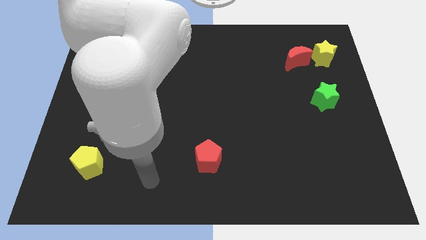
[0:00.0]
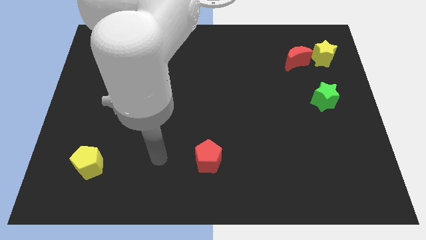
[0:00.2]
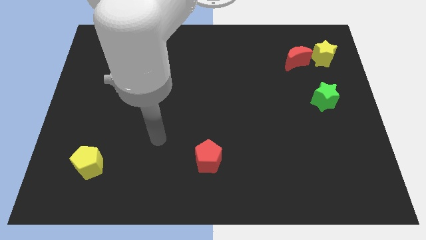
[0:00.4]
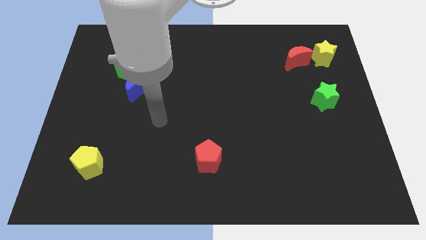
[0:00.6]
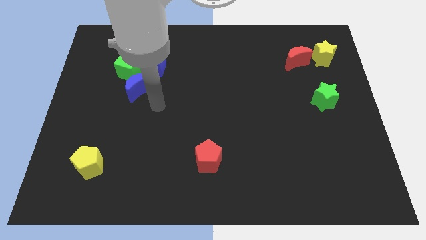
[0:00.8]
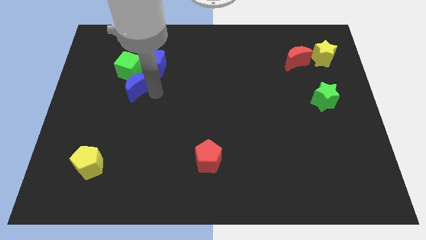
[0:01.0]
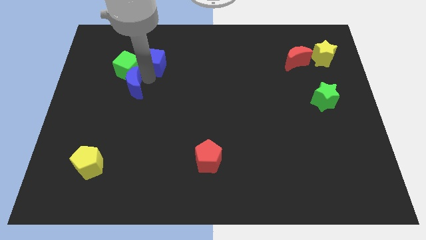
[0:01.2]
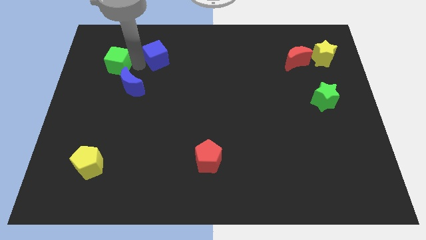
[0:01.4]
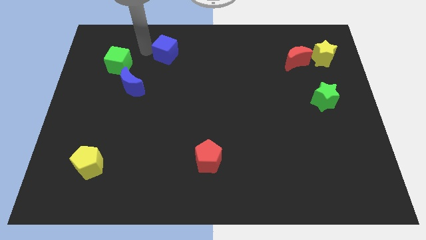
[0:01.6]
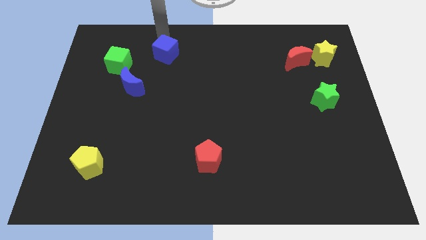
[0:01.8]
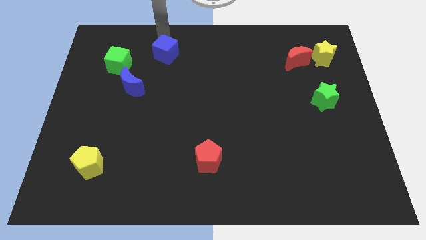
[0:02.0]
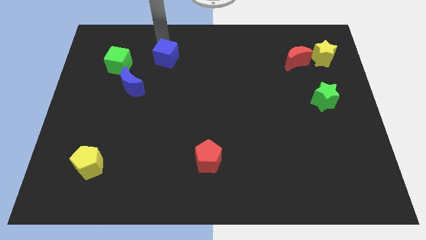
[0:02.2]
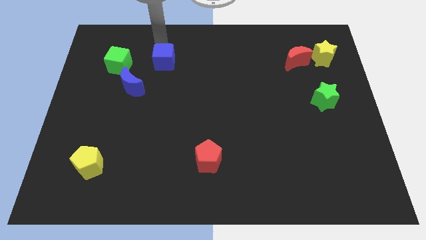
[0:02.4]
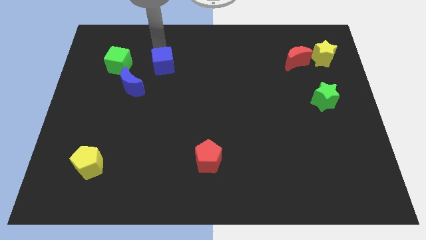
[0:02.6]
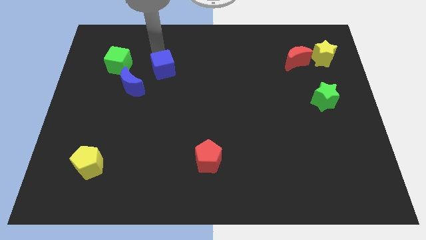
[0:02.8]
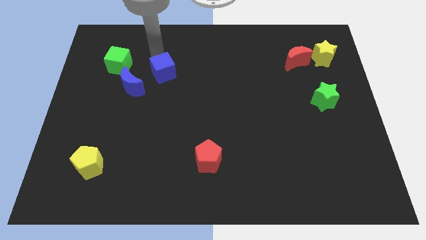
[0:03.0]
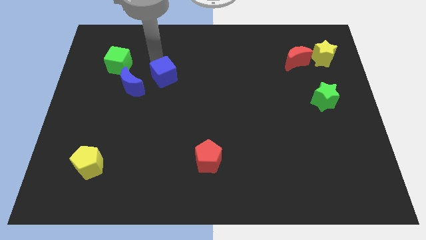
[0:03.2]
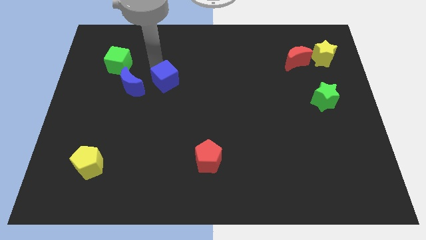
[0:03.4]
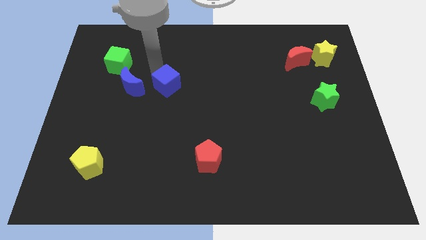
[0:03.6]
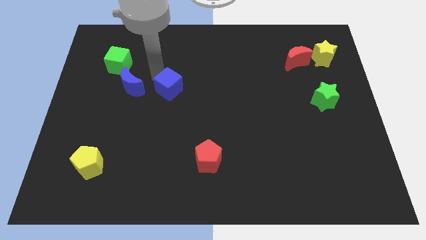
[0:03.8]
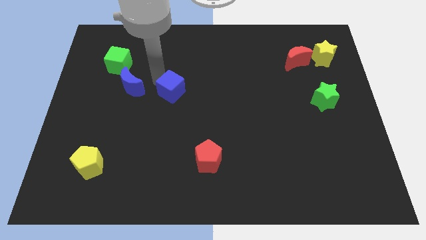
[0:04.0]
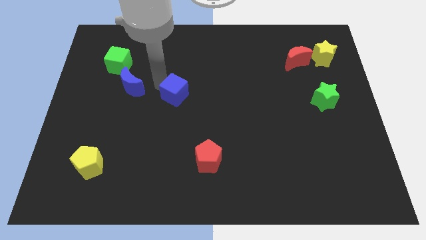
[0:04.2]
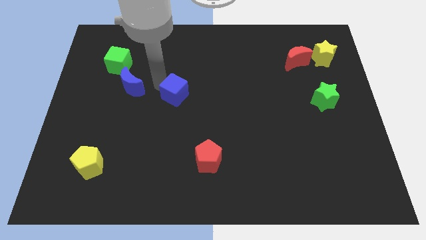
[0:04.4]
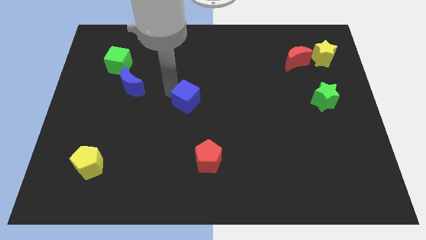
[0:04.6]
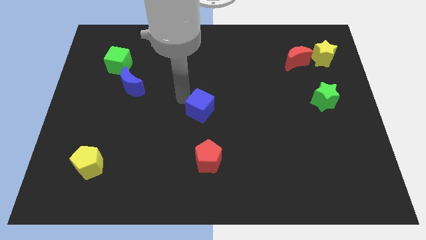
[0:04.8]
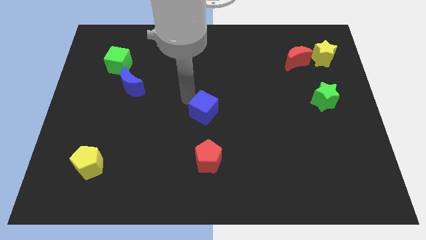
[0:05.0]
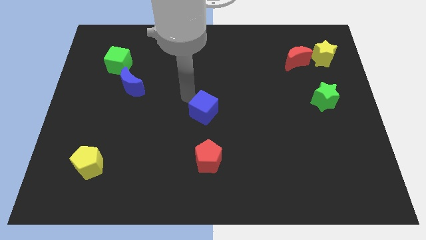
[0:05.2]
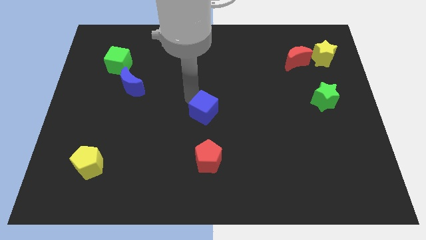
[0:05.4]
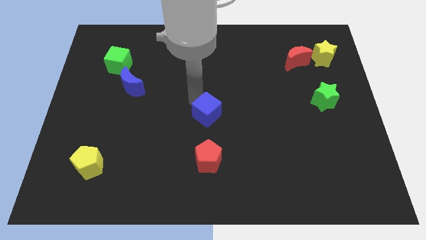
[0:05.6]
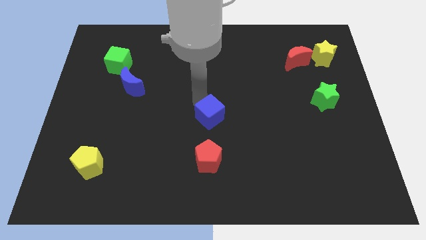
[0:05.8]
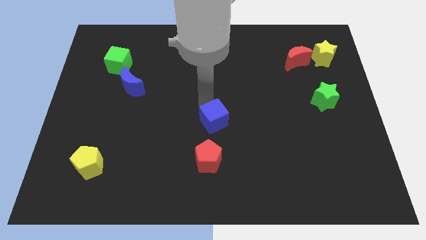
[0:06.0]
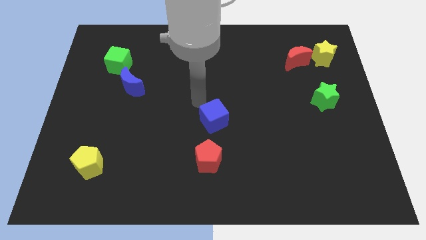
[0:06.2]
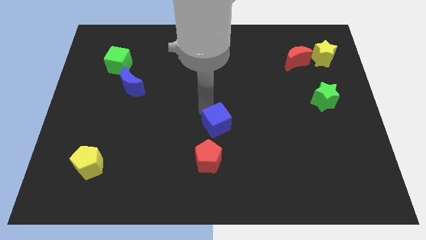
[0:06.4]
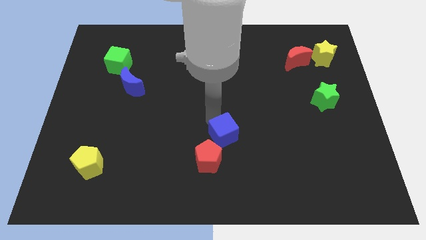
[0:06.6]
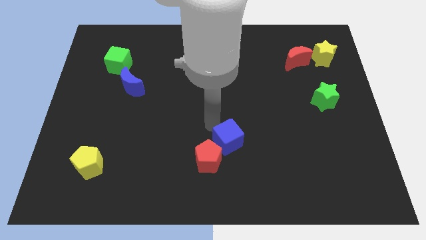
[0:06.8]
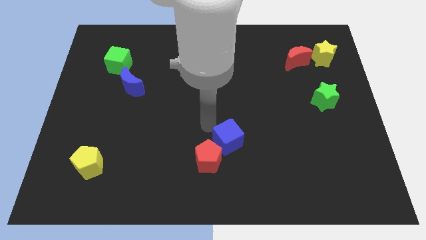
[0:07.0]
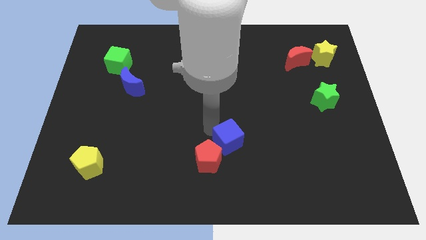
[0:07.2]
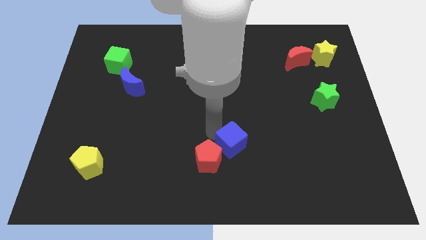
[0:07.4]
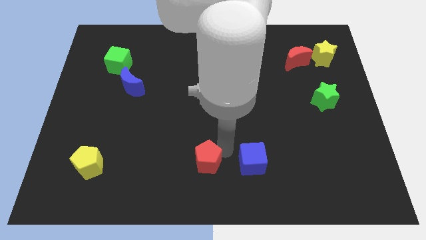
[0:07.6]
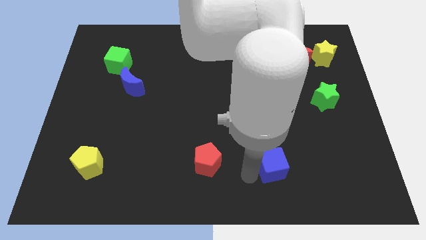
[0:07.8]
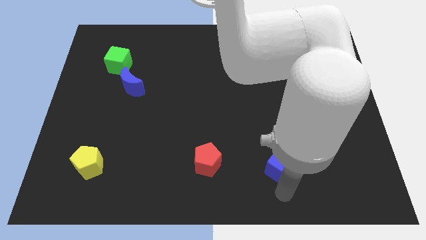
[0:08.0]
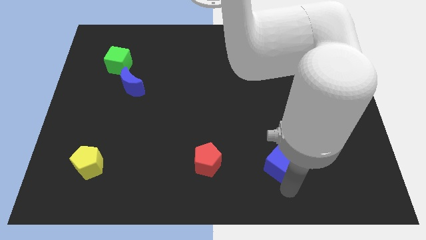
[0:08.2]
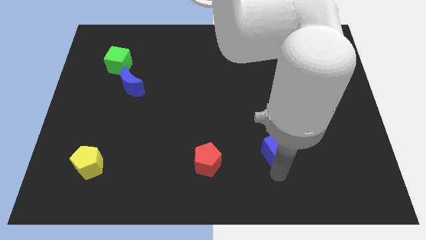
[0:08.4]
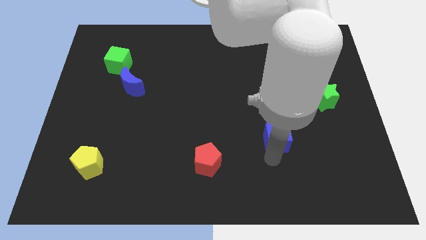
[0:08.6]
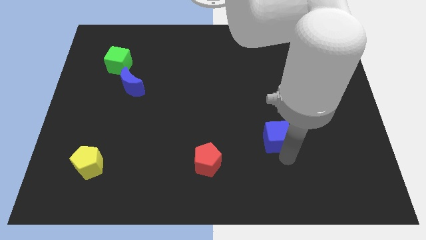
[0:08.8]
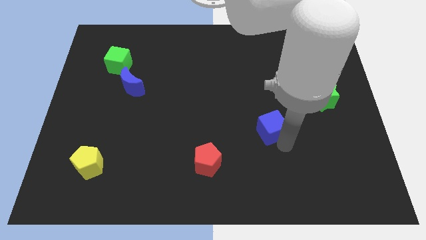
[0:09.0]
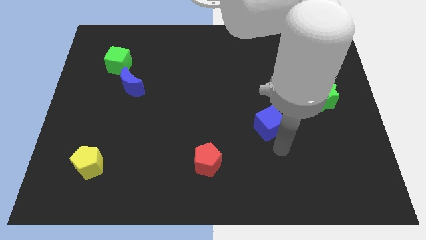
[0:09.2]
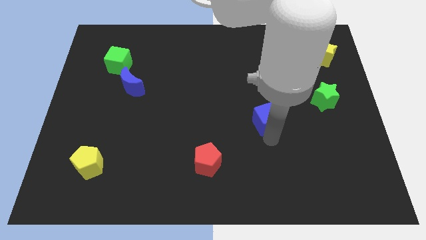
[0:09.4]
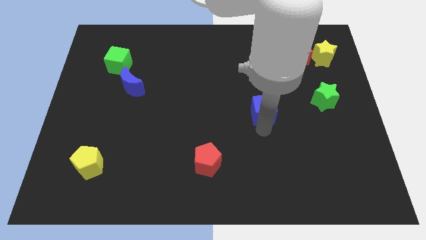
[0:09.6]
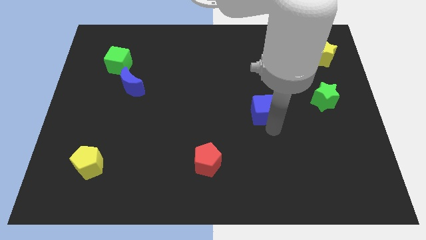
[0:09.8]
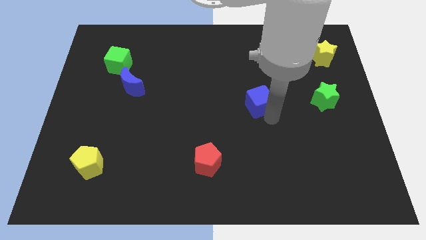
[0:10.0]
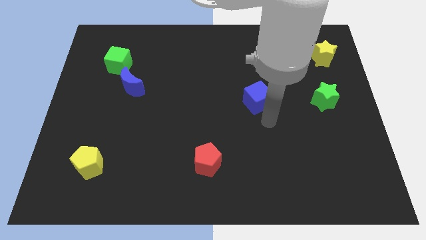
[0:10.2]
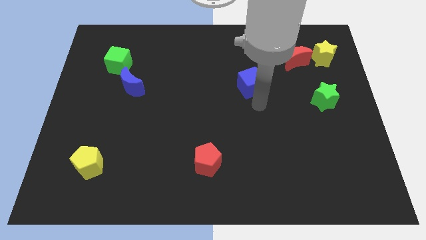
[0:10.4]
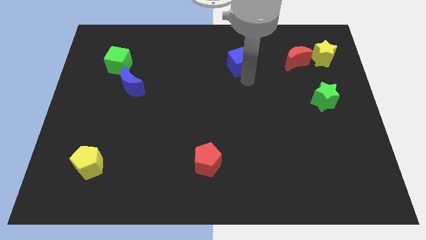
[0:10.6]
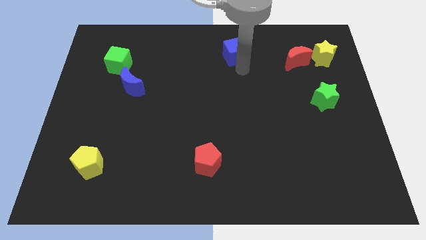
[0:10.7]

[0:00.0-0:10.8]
push the blue cube to the top
